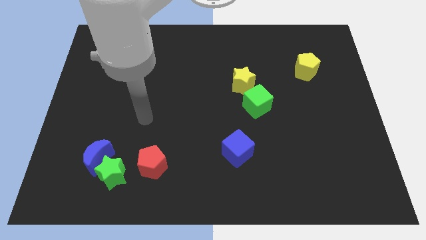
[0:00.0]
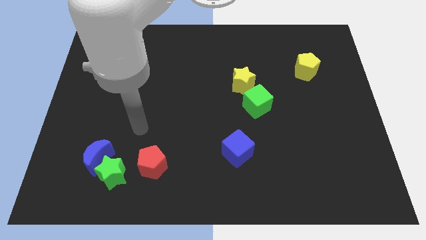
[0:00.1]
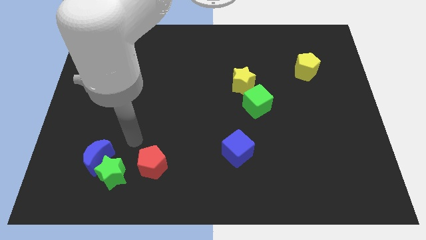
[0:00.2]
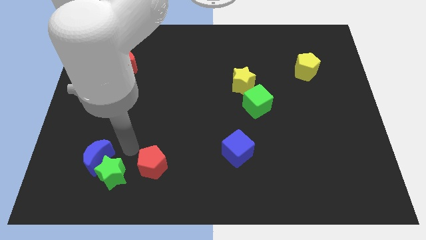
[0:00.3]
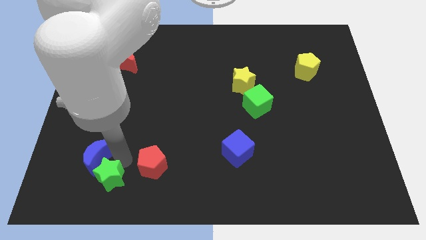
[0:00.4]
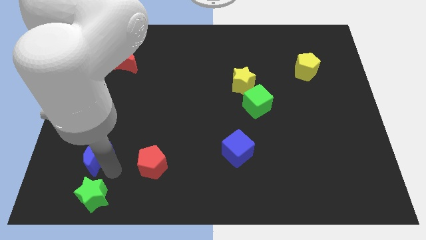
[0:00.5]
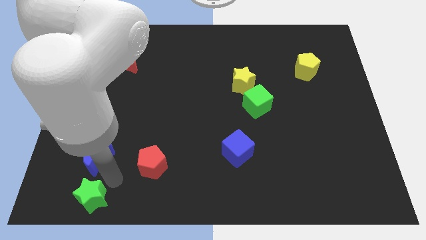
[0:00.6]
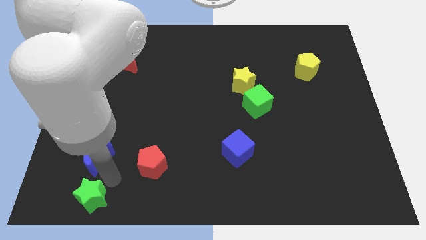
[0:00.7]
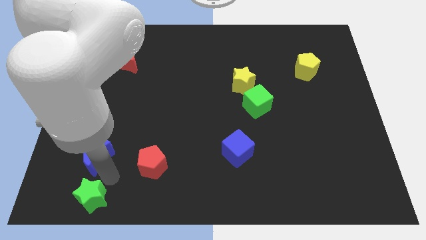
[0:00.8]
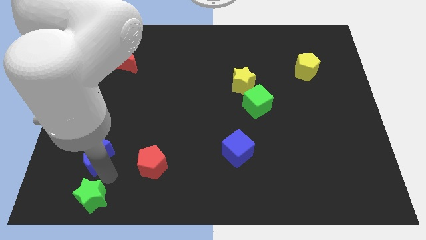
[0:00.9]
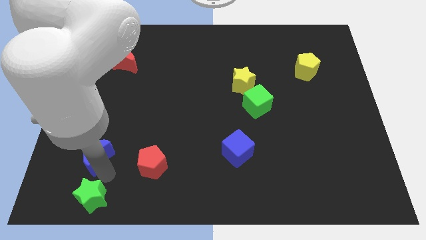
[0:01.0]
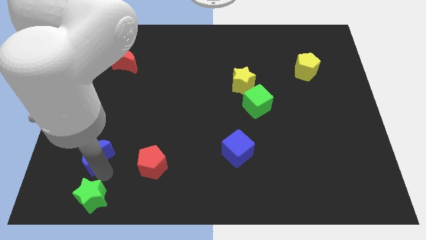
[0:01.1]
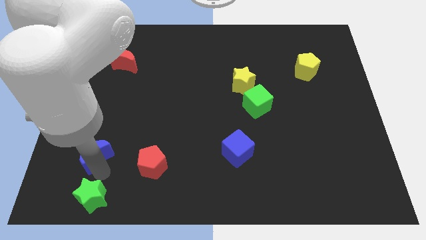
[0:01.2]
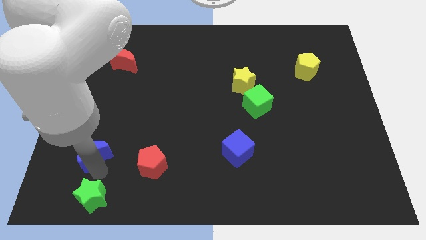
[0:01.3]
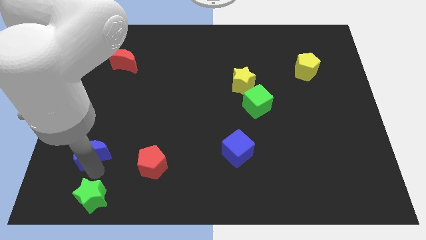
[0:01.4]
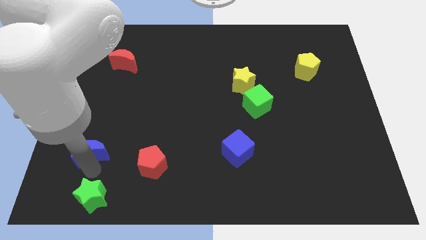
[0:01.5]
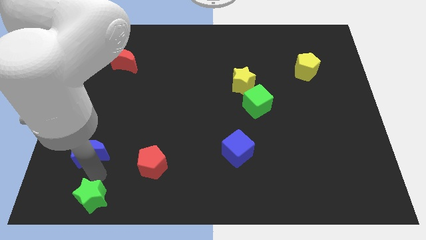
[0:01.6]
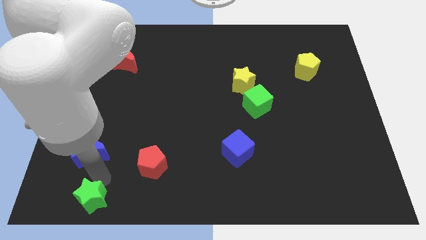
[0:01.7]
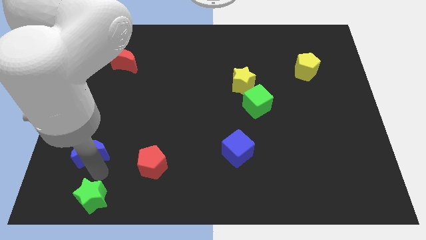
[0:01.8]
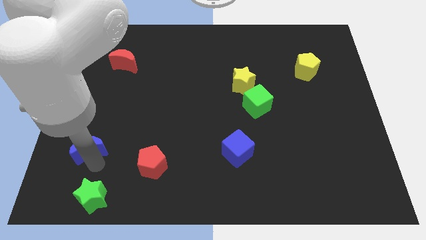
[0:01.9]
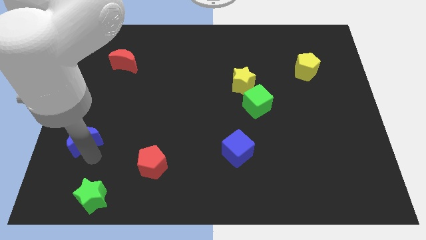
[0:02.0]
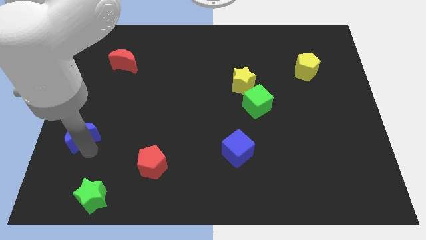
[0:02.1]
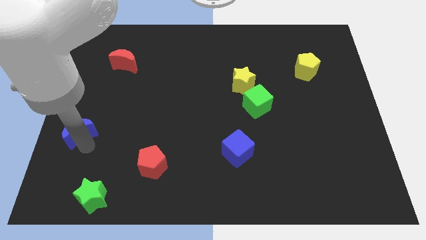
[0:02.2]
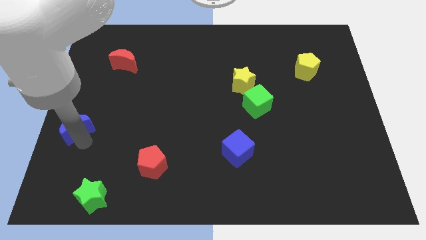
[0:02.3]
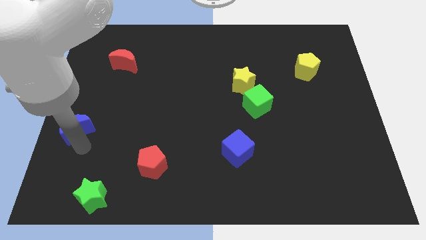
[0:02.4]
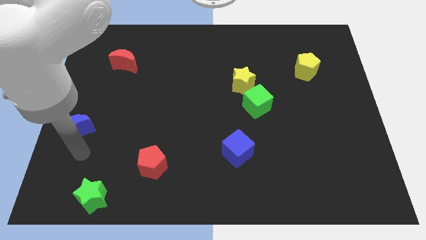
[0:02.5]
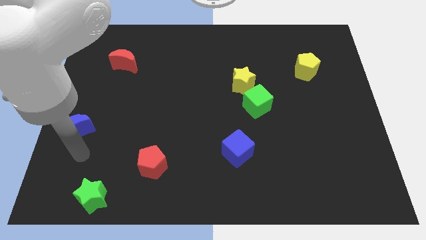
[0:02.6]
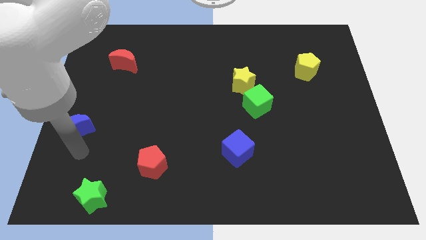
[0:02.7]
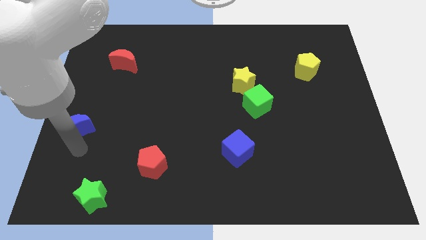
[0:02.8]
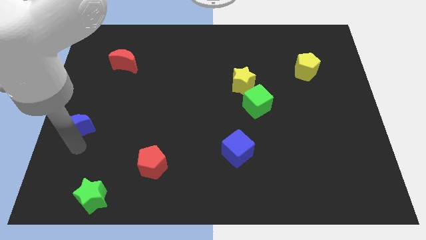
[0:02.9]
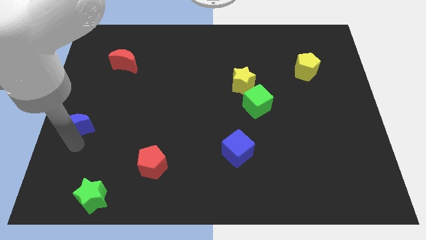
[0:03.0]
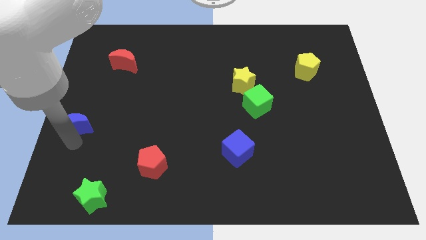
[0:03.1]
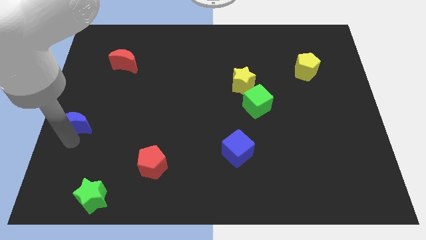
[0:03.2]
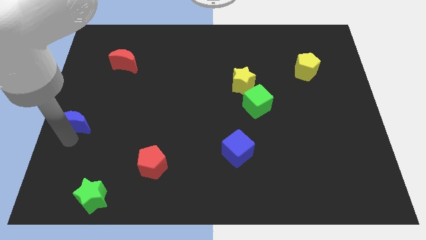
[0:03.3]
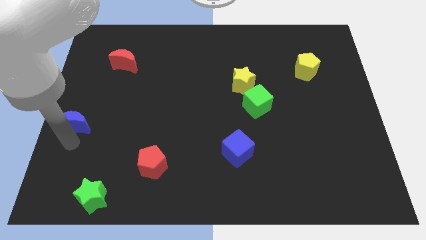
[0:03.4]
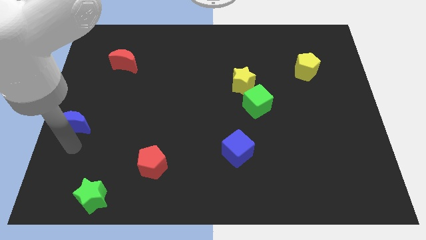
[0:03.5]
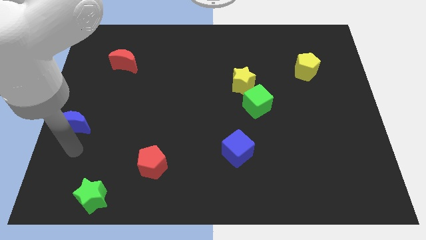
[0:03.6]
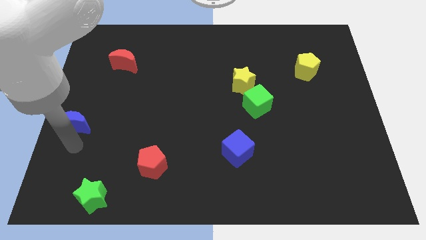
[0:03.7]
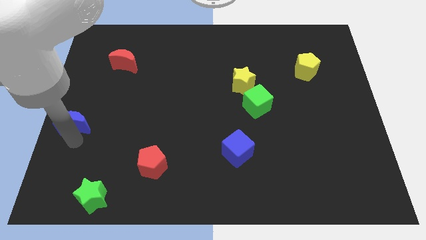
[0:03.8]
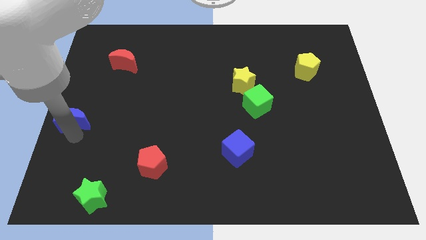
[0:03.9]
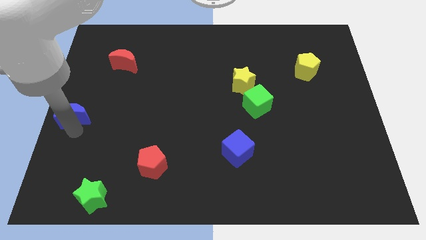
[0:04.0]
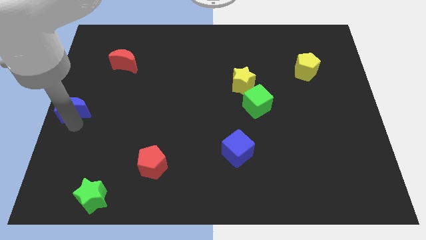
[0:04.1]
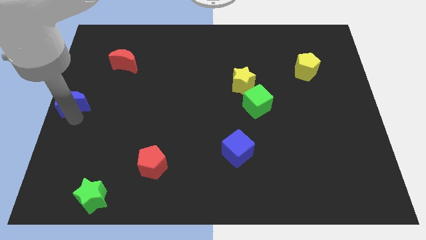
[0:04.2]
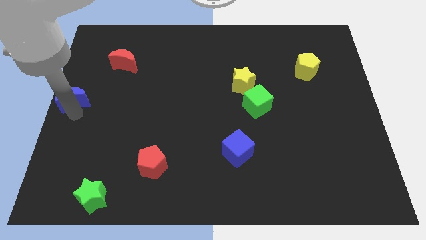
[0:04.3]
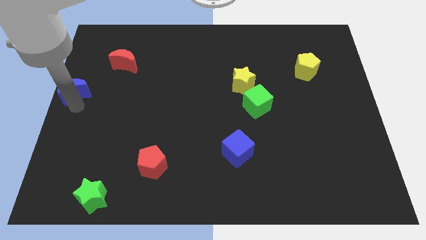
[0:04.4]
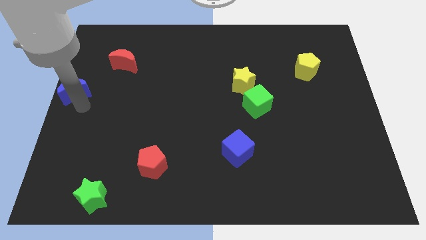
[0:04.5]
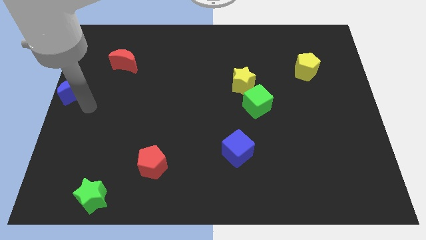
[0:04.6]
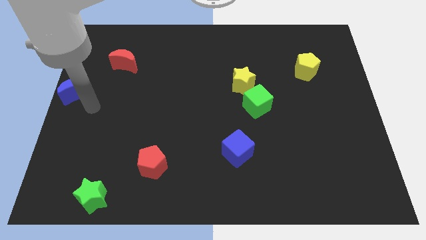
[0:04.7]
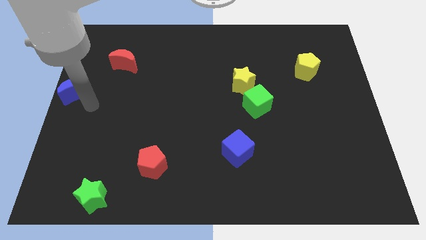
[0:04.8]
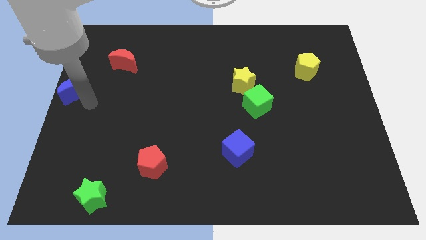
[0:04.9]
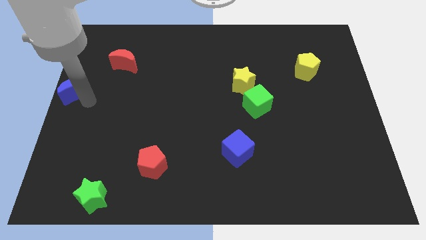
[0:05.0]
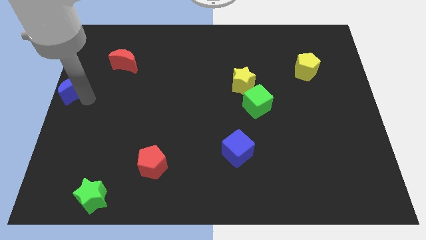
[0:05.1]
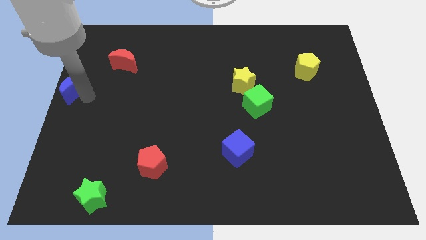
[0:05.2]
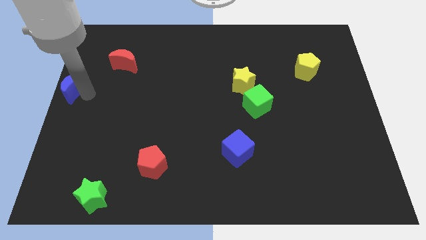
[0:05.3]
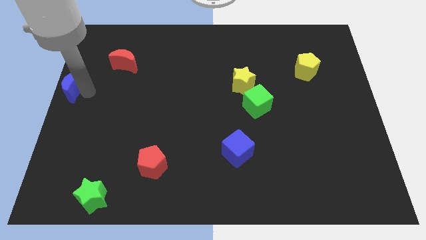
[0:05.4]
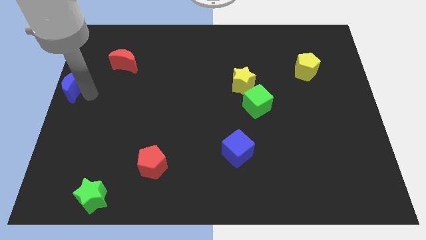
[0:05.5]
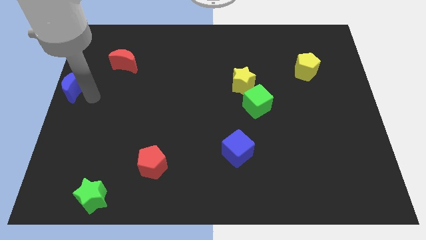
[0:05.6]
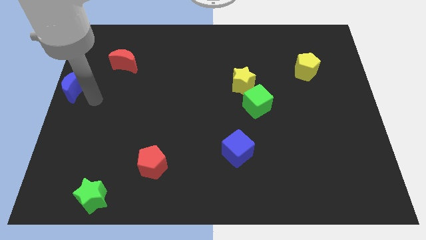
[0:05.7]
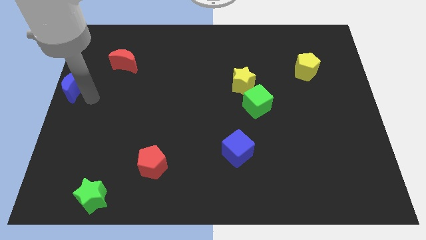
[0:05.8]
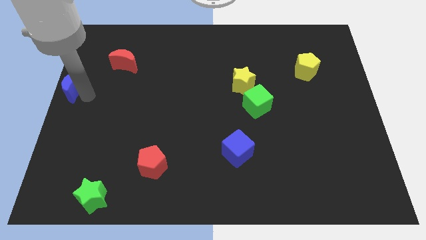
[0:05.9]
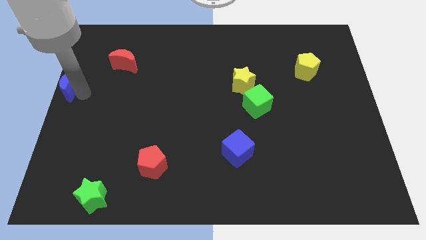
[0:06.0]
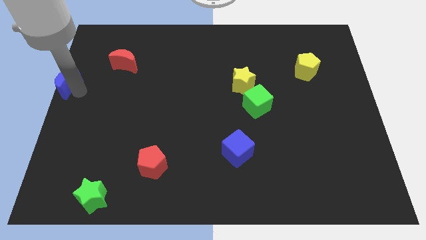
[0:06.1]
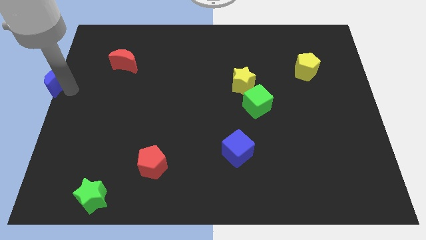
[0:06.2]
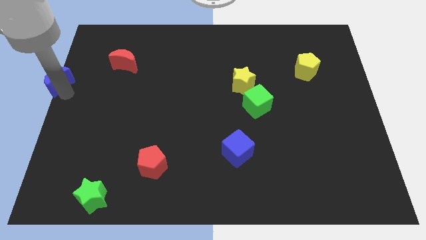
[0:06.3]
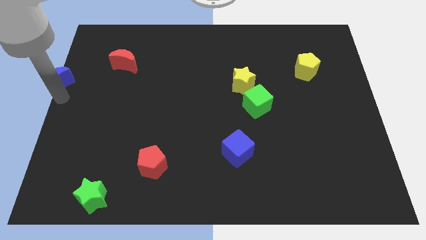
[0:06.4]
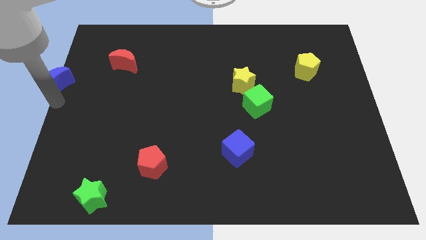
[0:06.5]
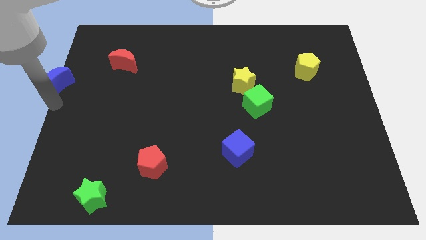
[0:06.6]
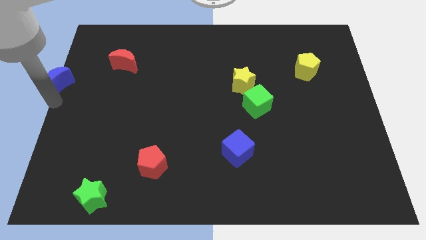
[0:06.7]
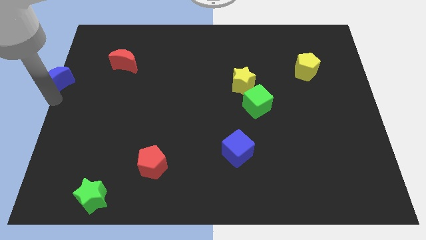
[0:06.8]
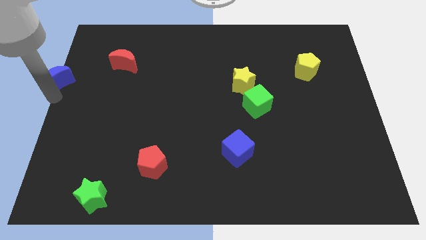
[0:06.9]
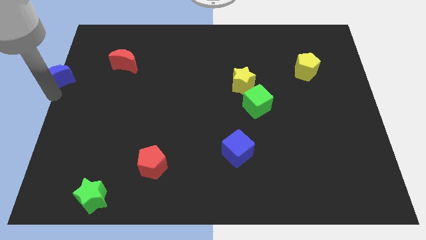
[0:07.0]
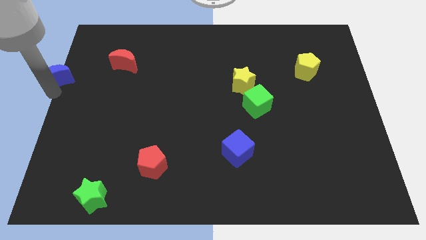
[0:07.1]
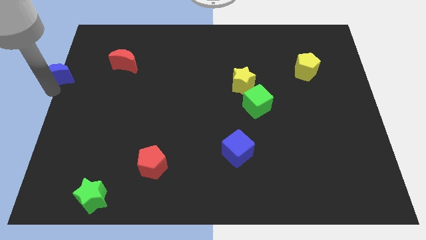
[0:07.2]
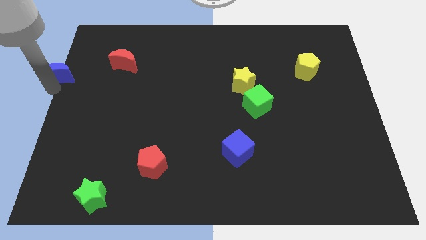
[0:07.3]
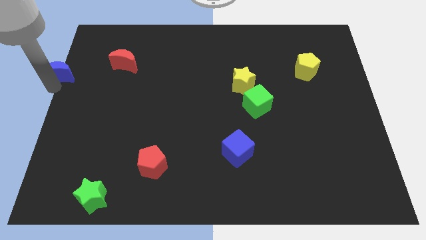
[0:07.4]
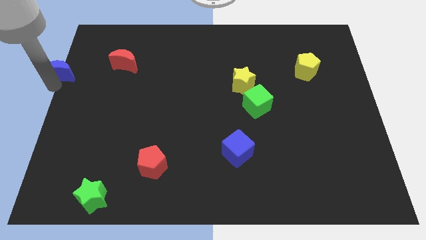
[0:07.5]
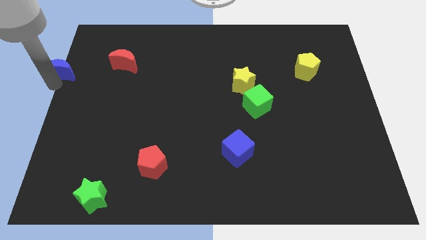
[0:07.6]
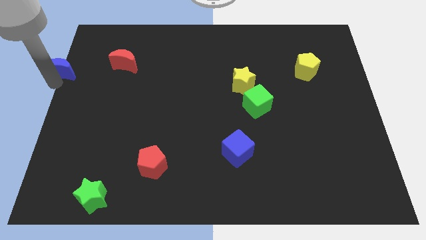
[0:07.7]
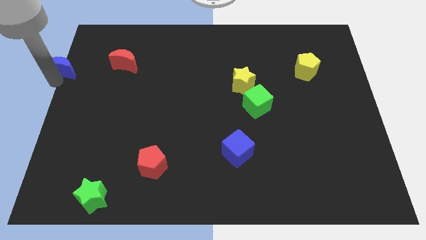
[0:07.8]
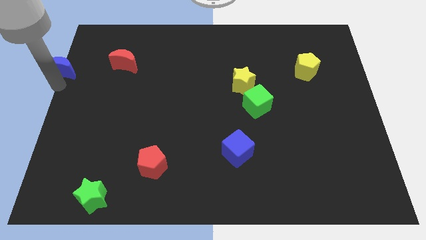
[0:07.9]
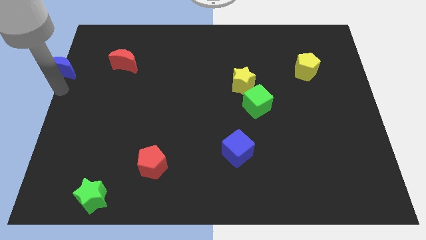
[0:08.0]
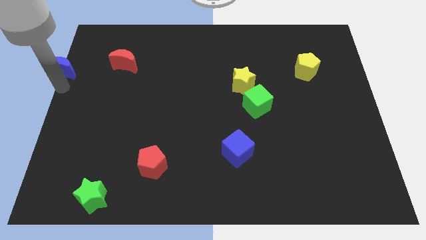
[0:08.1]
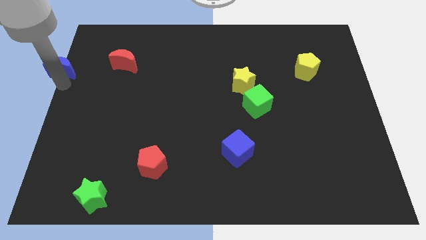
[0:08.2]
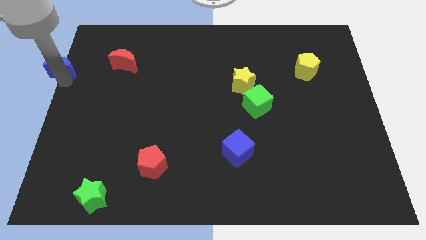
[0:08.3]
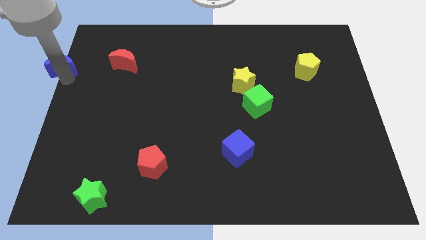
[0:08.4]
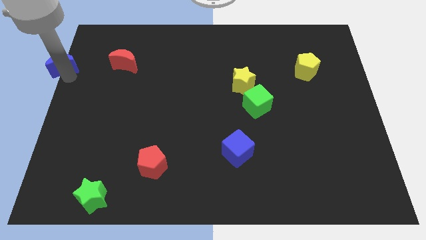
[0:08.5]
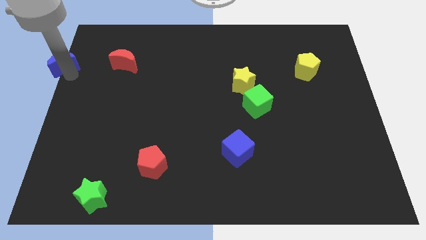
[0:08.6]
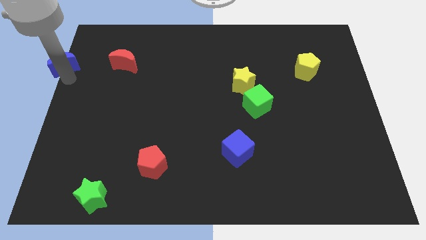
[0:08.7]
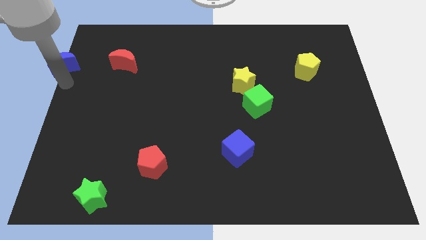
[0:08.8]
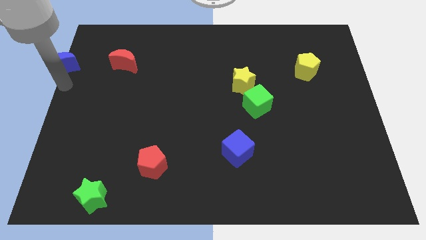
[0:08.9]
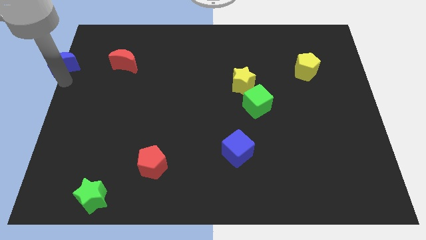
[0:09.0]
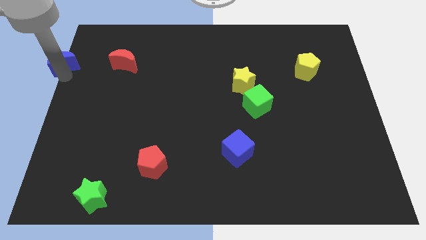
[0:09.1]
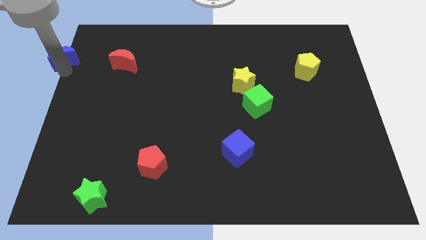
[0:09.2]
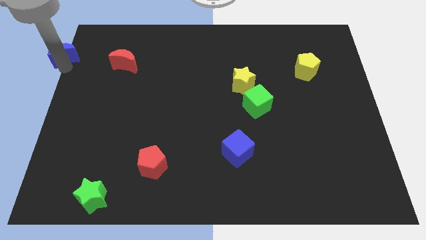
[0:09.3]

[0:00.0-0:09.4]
put the blue moon to the top left corner
